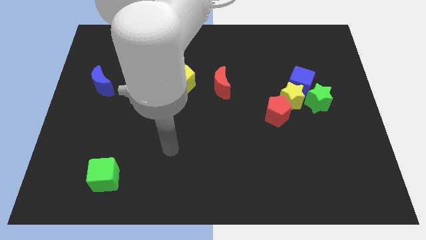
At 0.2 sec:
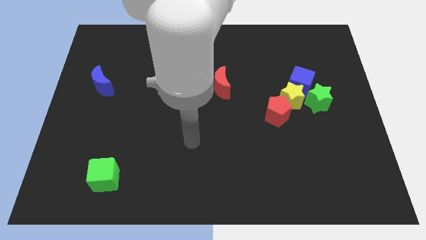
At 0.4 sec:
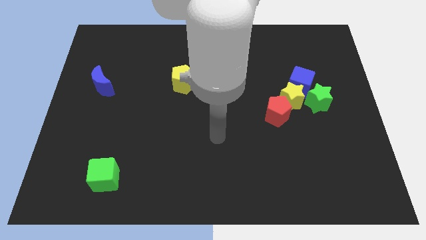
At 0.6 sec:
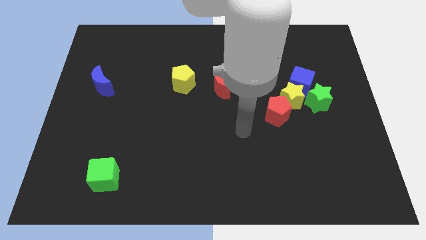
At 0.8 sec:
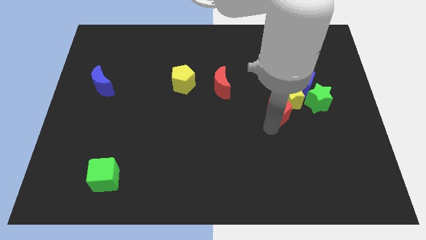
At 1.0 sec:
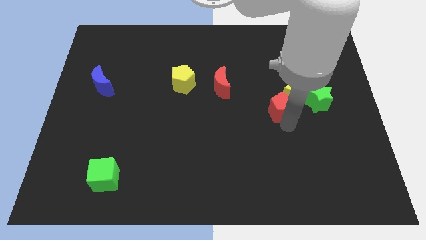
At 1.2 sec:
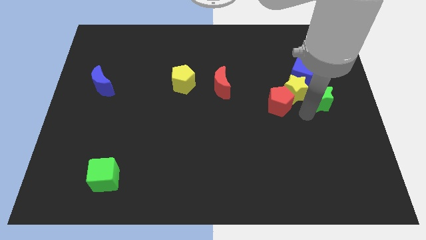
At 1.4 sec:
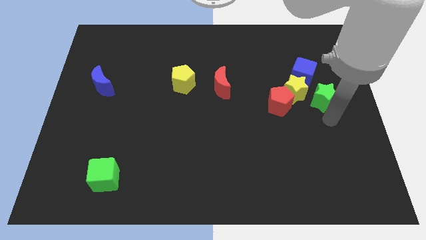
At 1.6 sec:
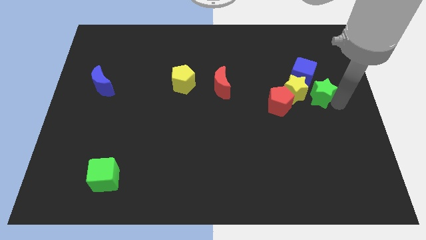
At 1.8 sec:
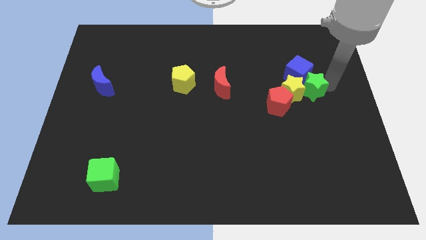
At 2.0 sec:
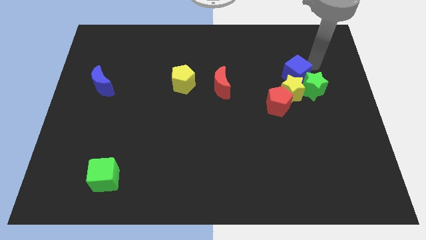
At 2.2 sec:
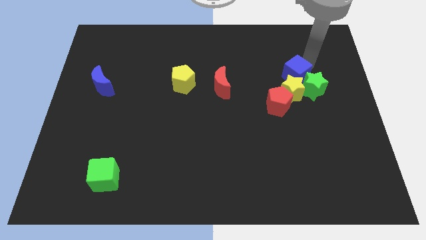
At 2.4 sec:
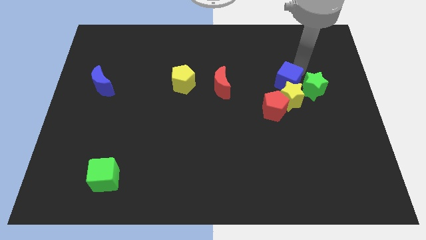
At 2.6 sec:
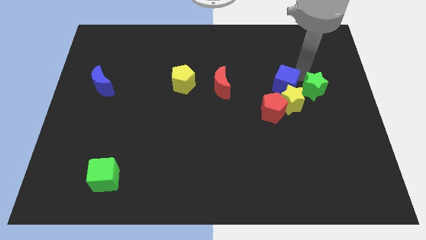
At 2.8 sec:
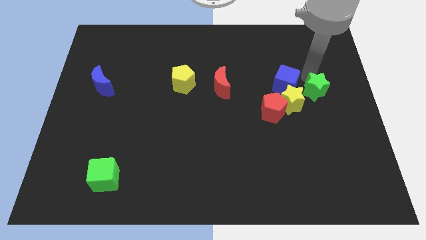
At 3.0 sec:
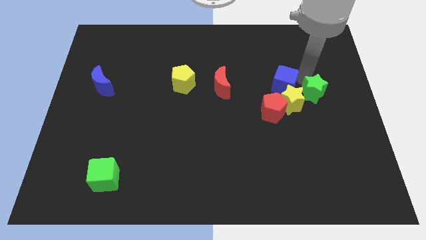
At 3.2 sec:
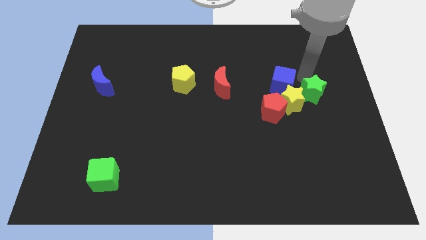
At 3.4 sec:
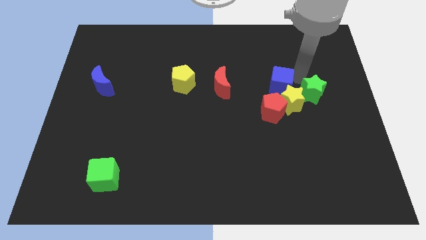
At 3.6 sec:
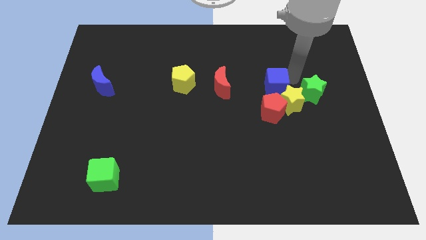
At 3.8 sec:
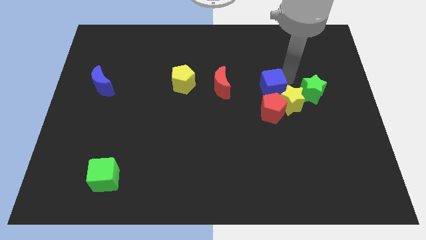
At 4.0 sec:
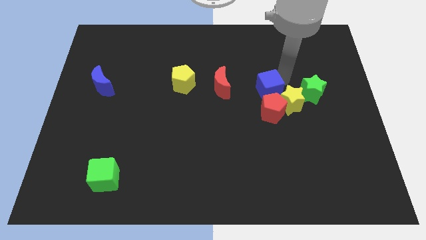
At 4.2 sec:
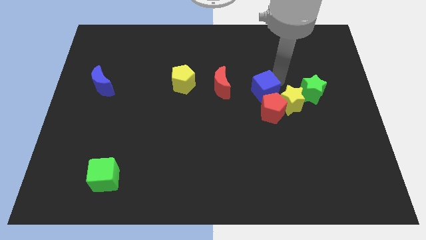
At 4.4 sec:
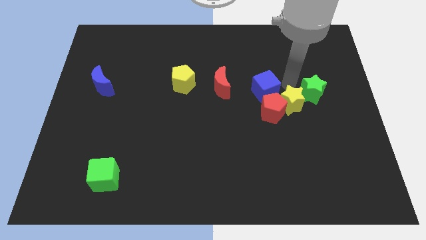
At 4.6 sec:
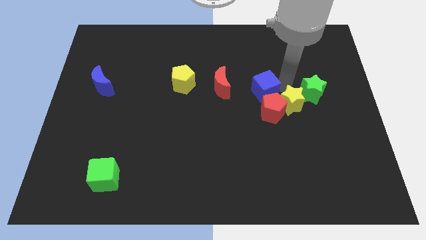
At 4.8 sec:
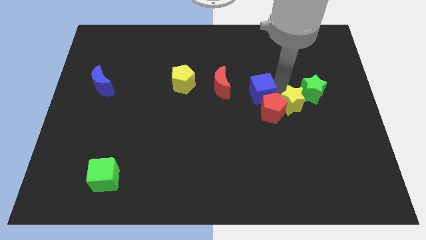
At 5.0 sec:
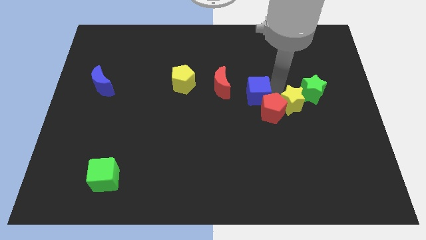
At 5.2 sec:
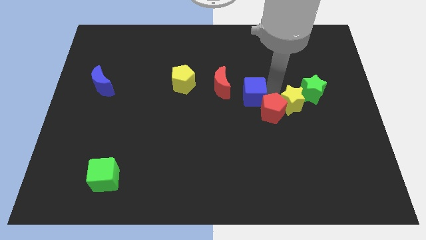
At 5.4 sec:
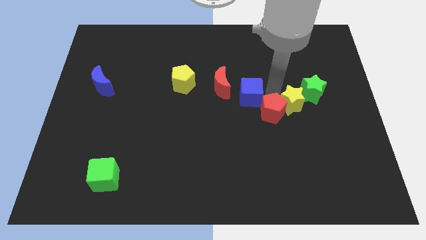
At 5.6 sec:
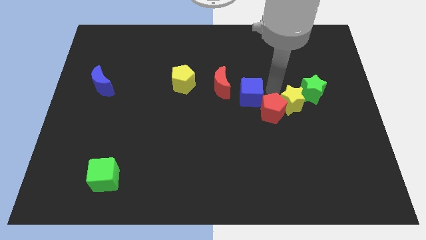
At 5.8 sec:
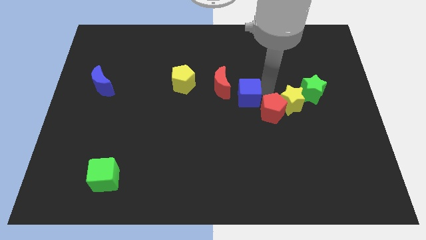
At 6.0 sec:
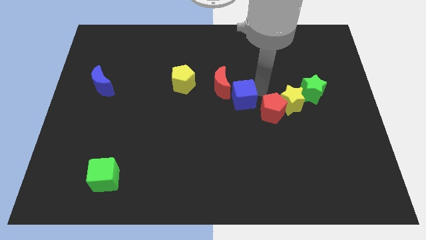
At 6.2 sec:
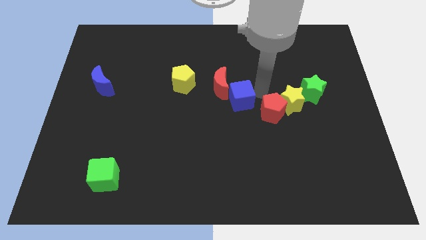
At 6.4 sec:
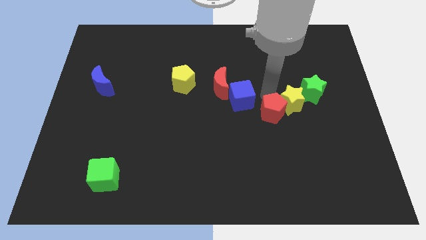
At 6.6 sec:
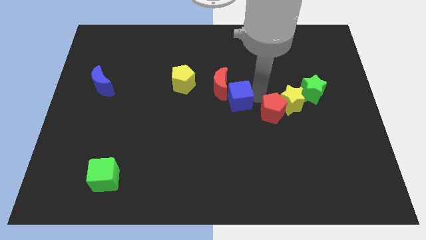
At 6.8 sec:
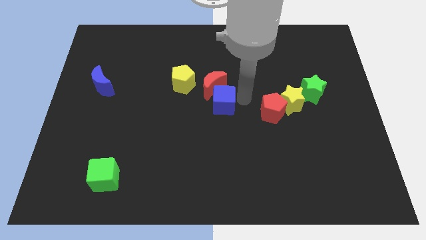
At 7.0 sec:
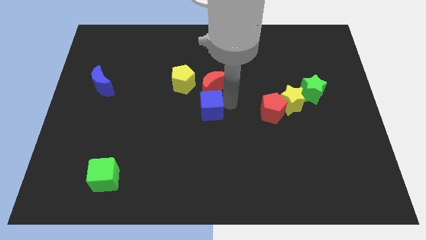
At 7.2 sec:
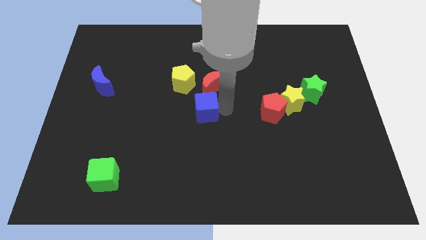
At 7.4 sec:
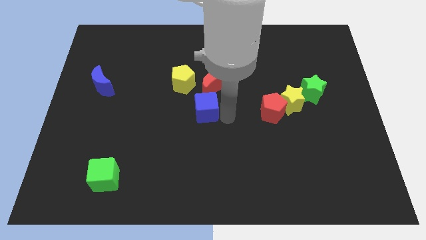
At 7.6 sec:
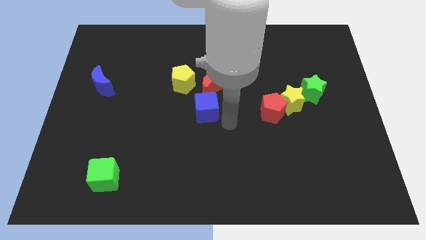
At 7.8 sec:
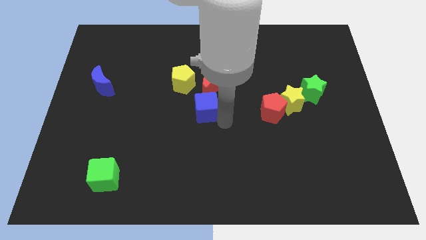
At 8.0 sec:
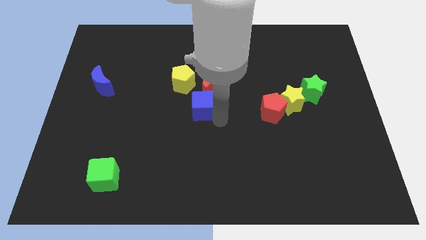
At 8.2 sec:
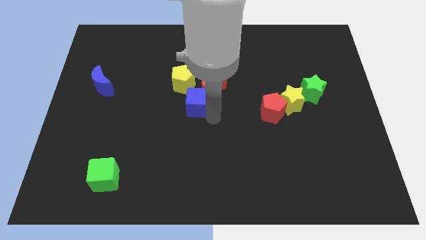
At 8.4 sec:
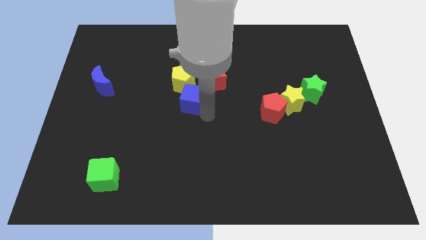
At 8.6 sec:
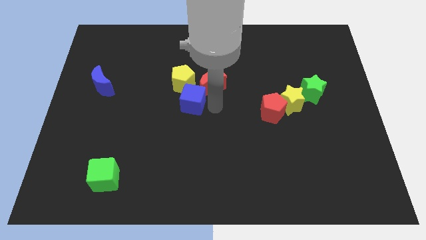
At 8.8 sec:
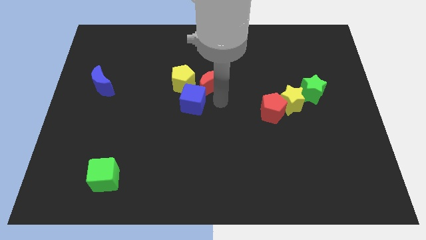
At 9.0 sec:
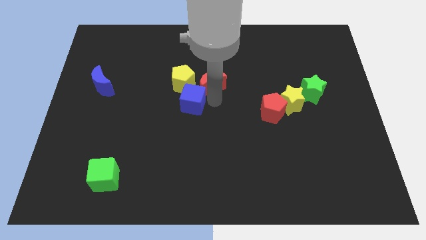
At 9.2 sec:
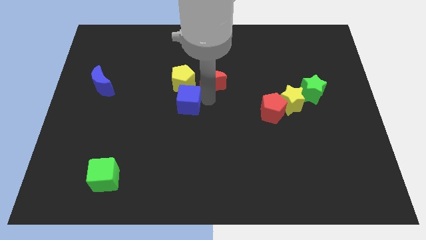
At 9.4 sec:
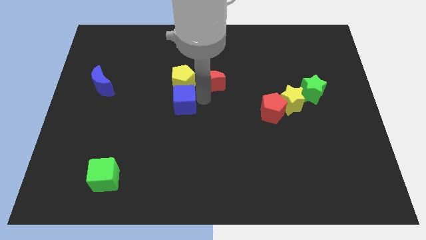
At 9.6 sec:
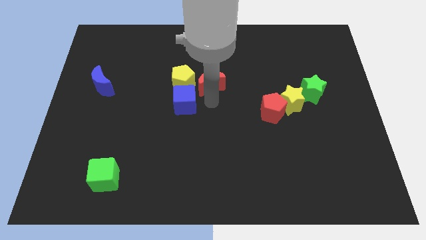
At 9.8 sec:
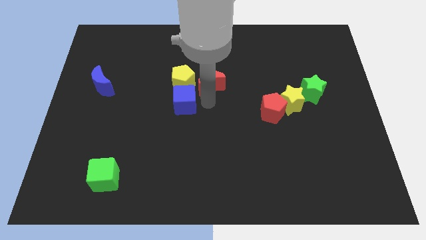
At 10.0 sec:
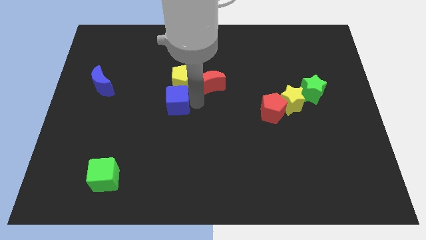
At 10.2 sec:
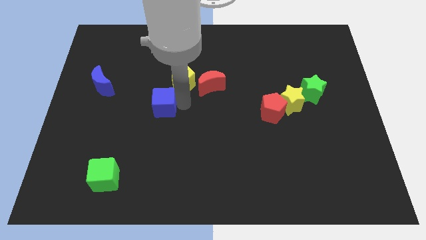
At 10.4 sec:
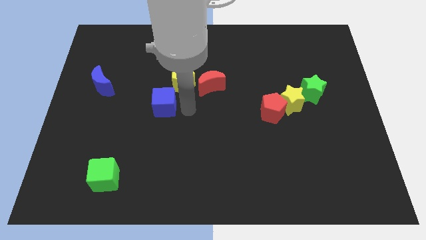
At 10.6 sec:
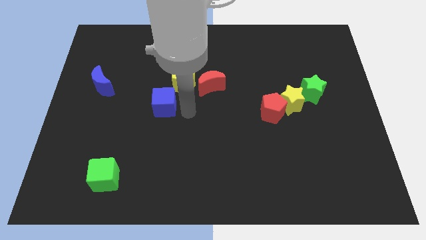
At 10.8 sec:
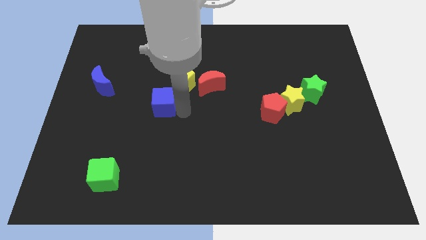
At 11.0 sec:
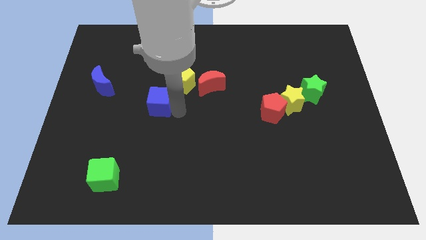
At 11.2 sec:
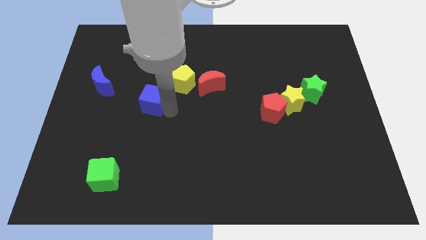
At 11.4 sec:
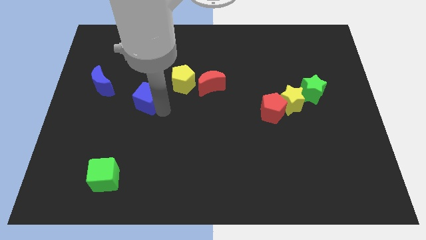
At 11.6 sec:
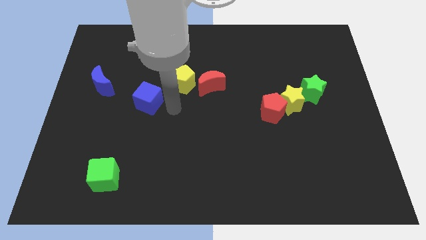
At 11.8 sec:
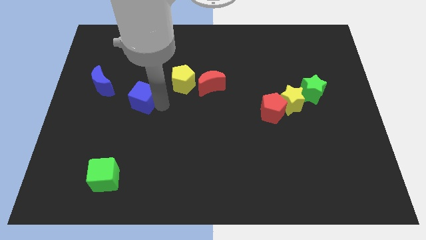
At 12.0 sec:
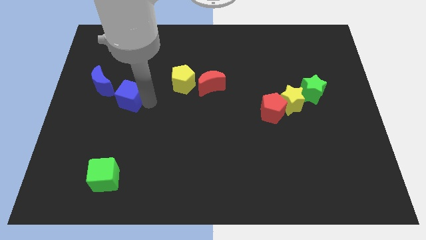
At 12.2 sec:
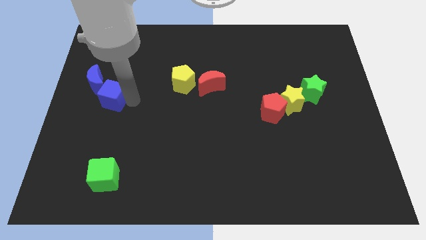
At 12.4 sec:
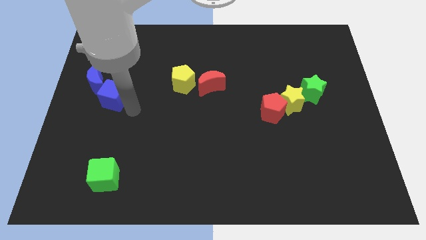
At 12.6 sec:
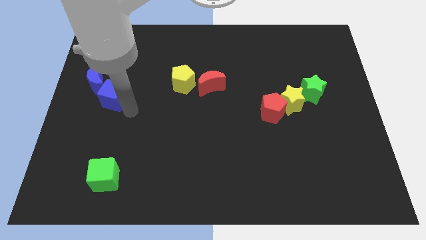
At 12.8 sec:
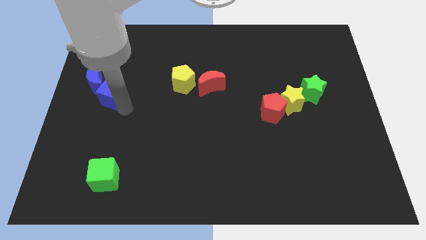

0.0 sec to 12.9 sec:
push the blue cube to the blue moon

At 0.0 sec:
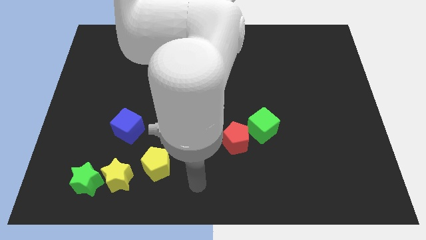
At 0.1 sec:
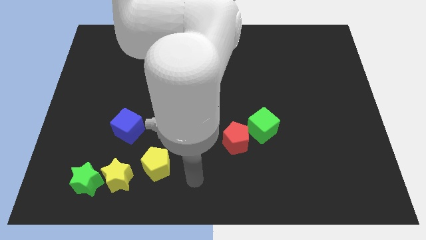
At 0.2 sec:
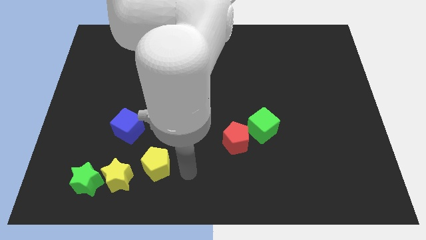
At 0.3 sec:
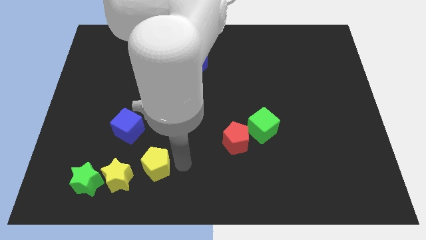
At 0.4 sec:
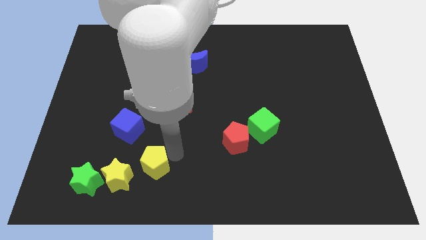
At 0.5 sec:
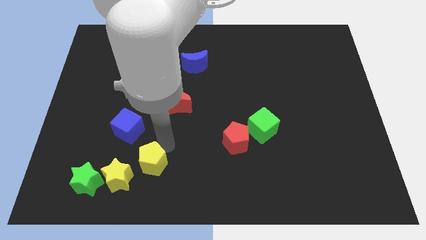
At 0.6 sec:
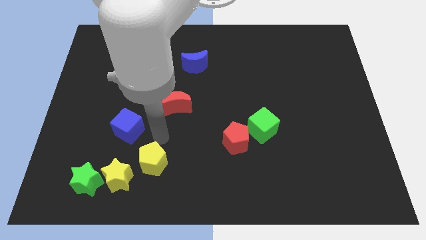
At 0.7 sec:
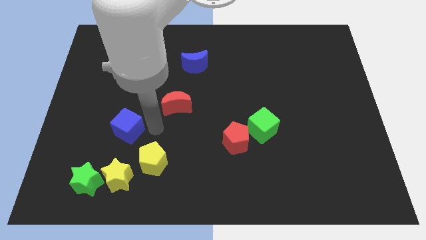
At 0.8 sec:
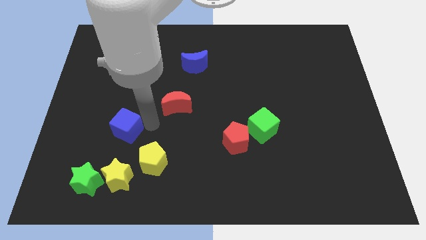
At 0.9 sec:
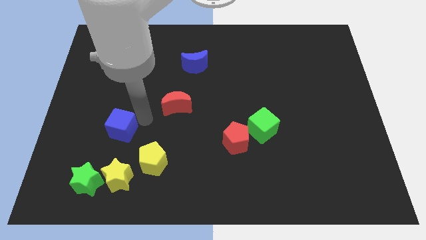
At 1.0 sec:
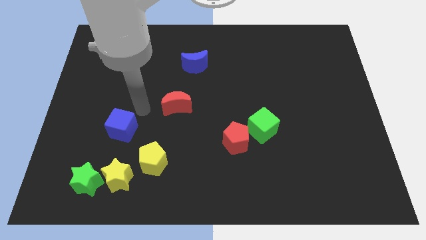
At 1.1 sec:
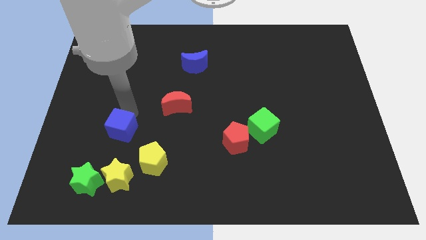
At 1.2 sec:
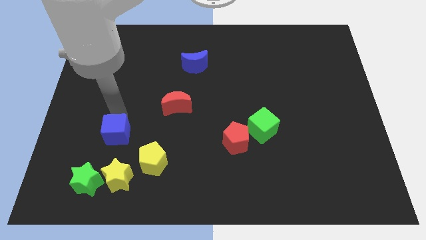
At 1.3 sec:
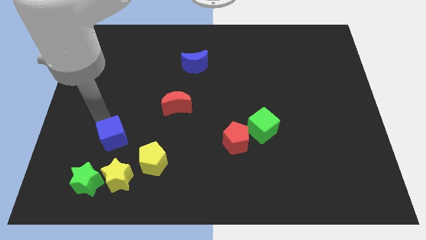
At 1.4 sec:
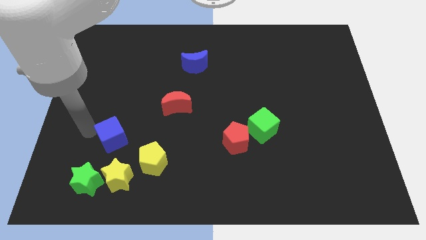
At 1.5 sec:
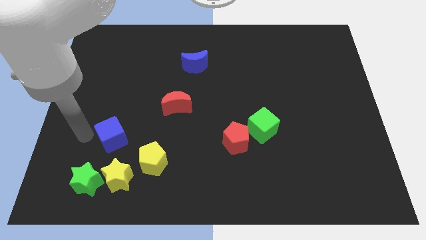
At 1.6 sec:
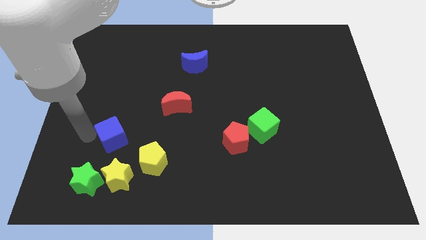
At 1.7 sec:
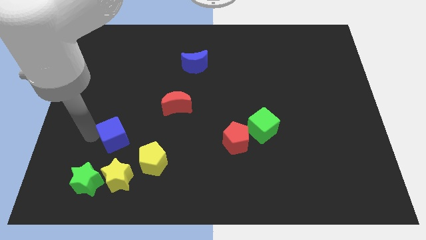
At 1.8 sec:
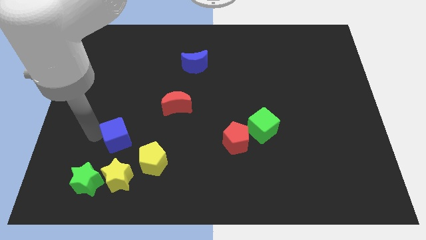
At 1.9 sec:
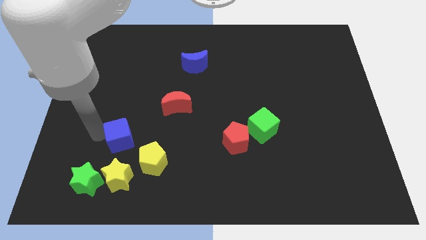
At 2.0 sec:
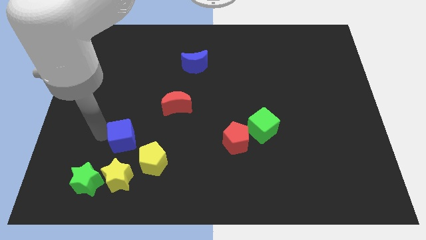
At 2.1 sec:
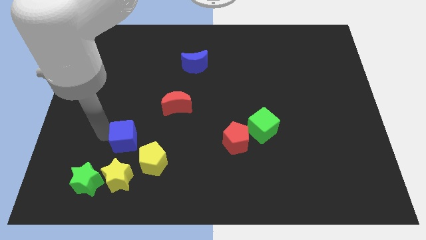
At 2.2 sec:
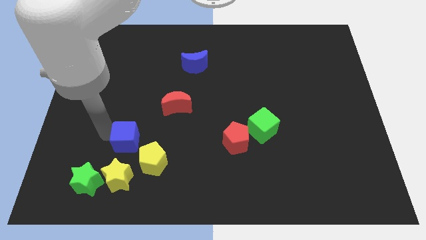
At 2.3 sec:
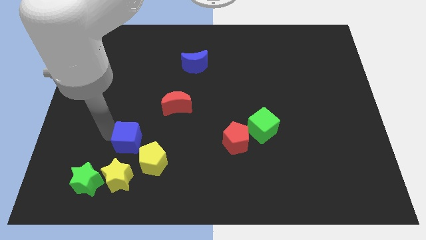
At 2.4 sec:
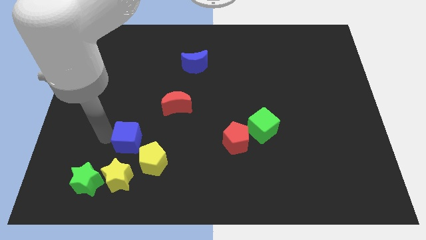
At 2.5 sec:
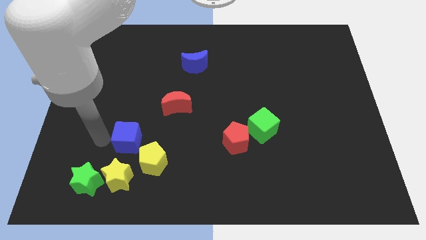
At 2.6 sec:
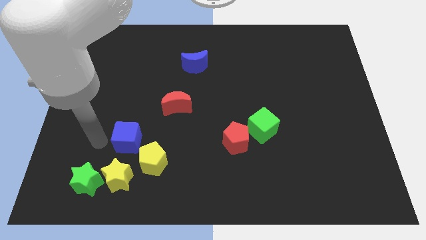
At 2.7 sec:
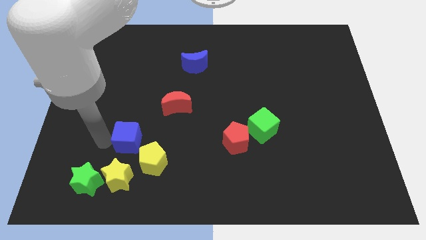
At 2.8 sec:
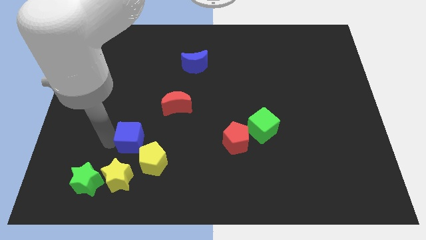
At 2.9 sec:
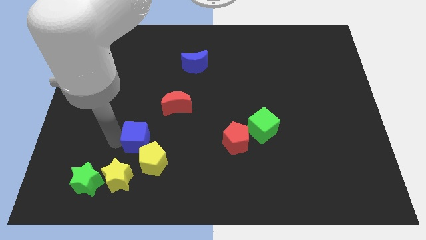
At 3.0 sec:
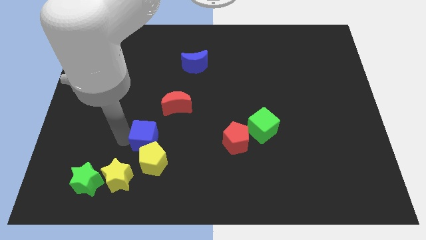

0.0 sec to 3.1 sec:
slide the blue cube towards the yellow pentagon
